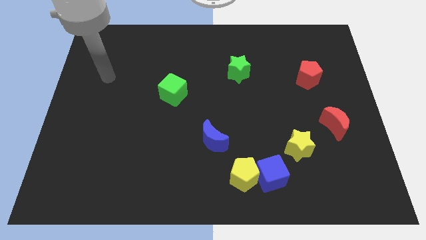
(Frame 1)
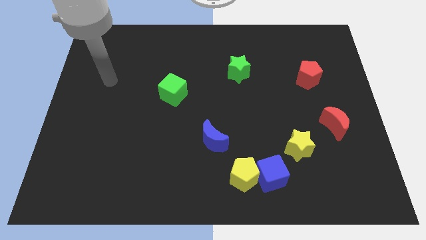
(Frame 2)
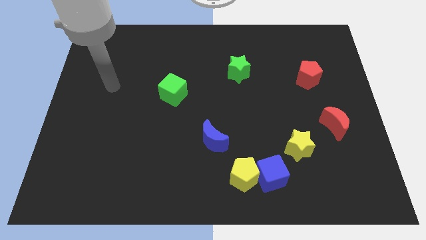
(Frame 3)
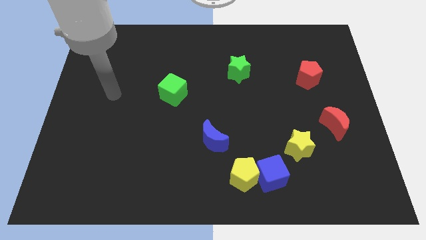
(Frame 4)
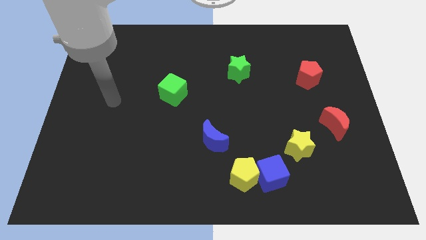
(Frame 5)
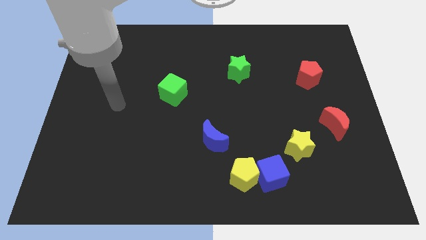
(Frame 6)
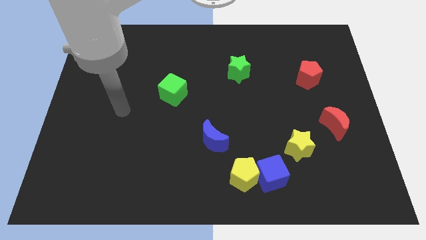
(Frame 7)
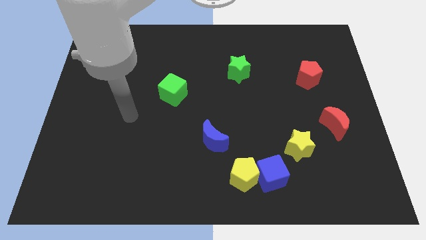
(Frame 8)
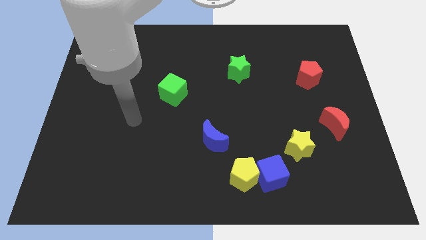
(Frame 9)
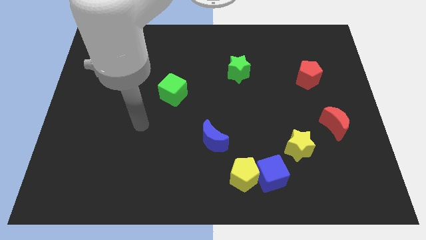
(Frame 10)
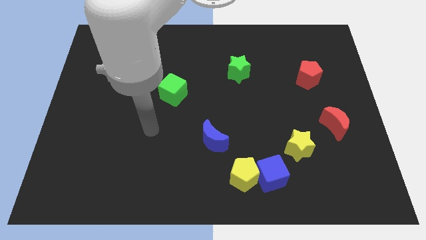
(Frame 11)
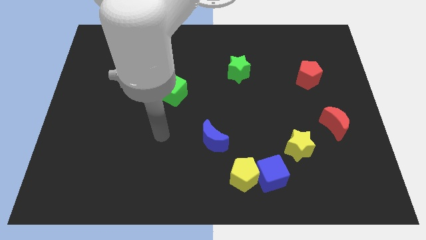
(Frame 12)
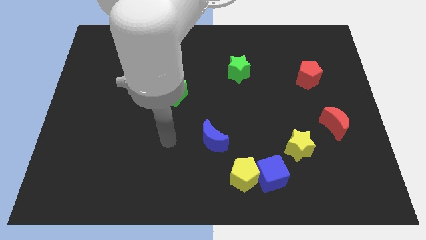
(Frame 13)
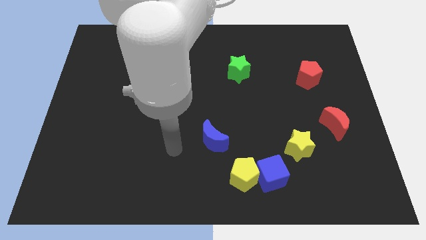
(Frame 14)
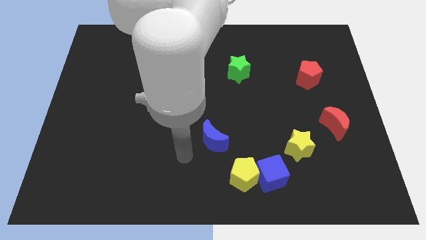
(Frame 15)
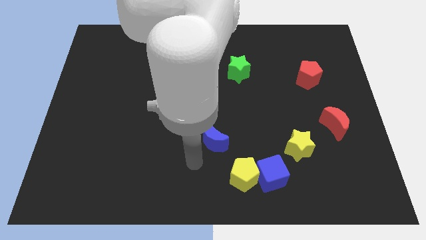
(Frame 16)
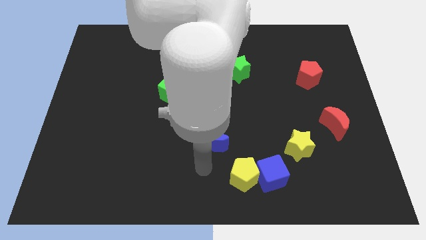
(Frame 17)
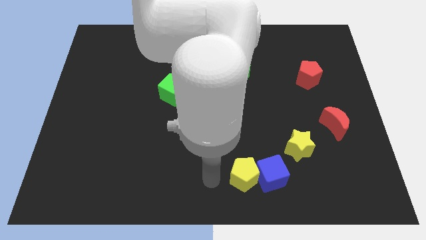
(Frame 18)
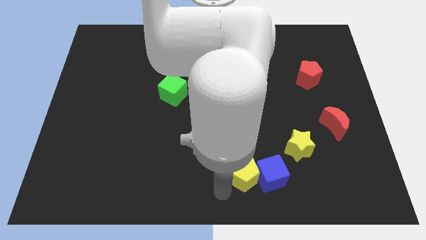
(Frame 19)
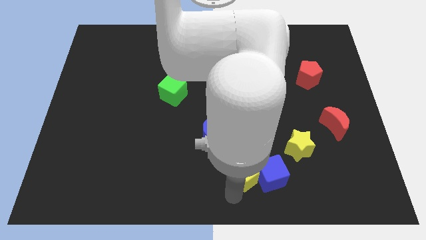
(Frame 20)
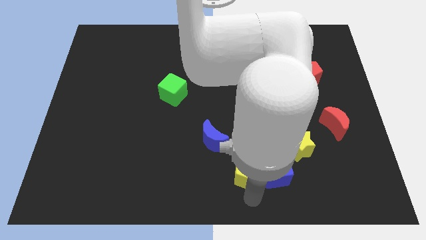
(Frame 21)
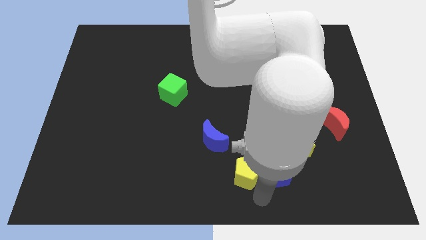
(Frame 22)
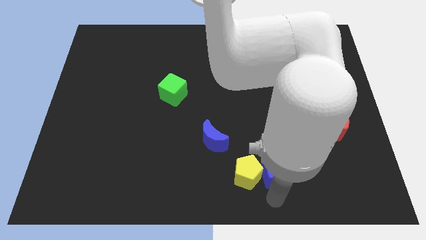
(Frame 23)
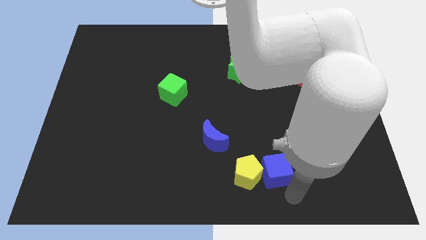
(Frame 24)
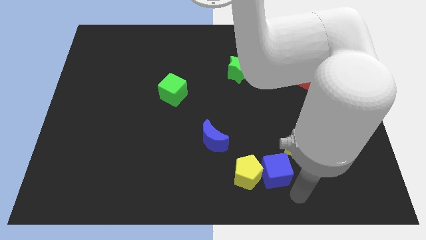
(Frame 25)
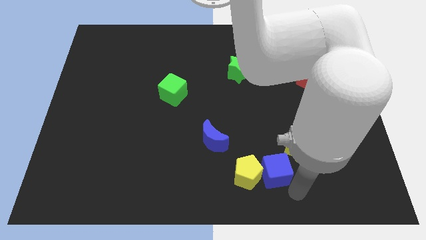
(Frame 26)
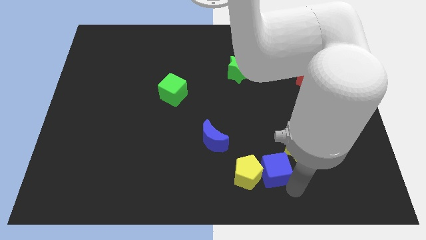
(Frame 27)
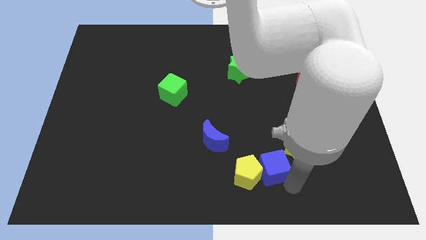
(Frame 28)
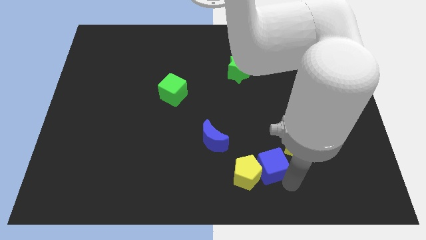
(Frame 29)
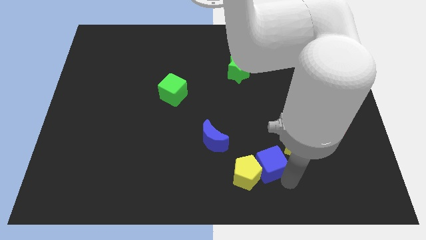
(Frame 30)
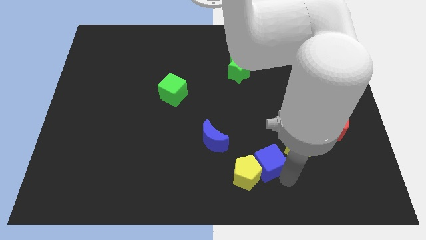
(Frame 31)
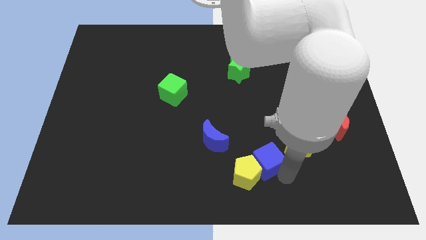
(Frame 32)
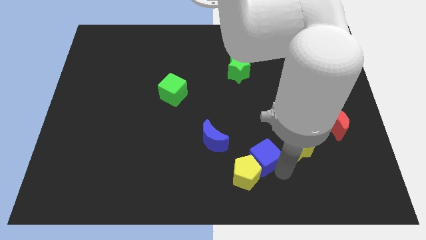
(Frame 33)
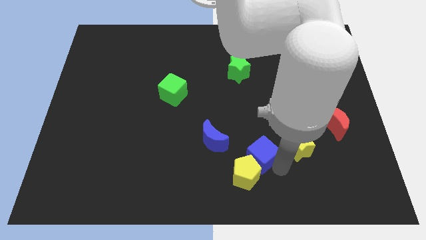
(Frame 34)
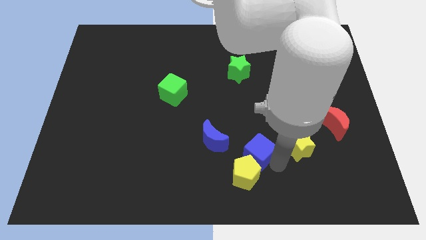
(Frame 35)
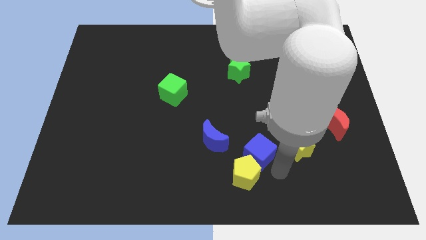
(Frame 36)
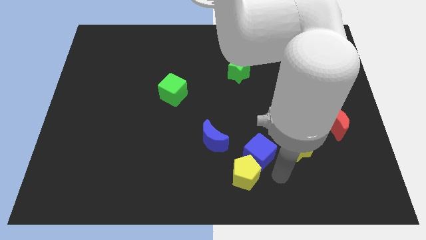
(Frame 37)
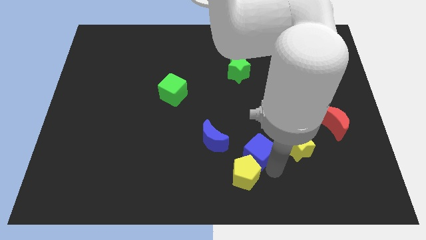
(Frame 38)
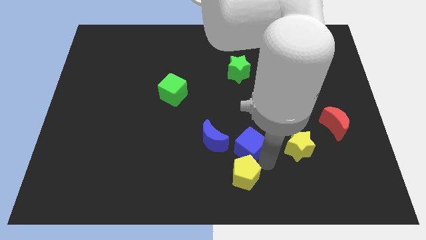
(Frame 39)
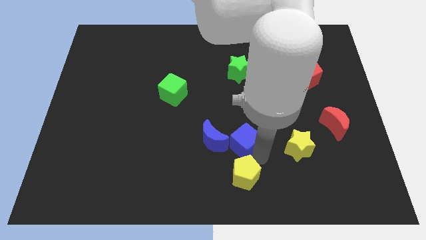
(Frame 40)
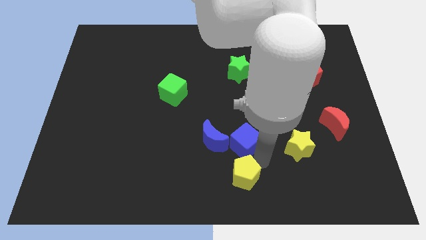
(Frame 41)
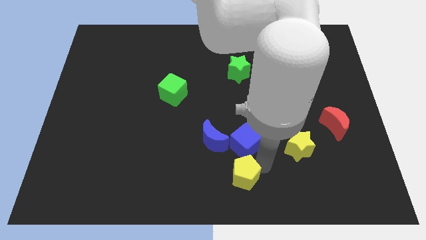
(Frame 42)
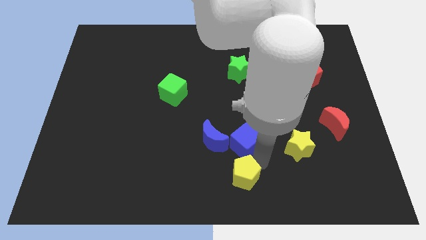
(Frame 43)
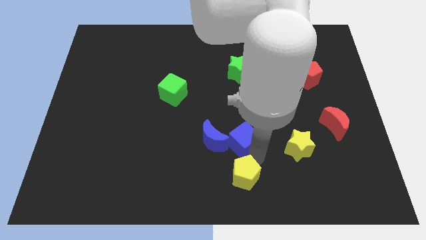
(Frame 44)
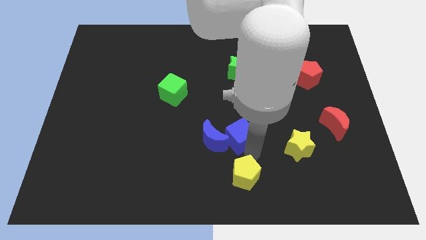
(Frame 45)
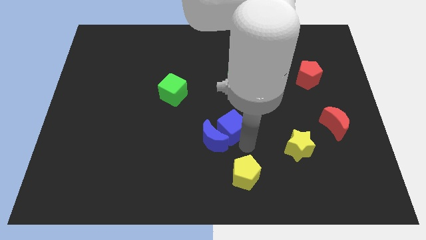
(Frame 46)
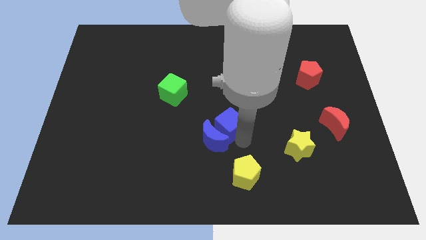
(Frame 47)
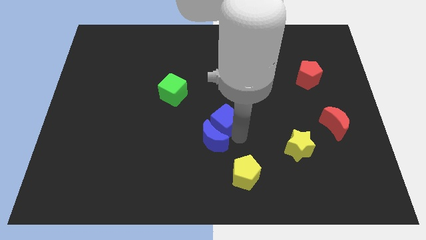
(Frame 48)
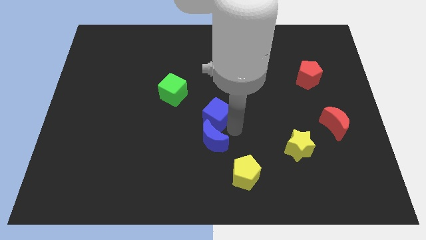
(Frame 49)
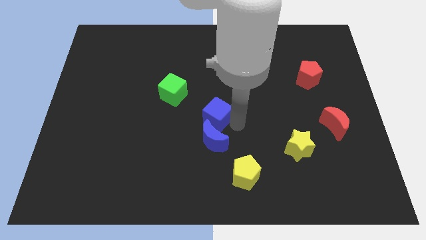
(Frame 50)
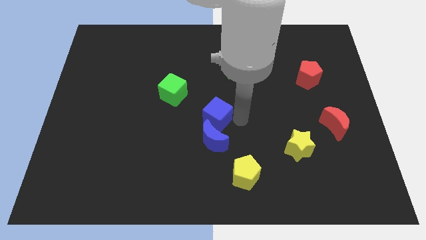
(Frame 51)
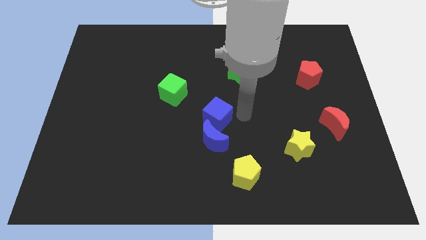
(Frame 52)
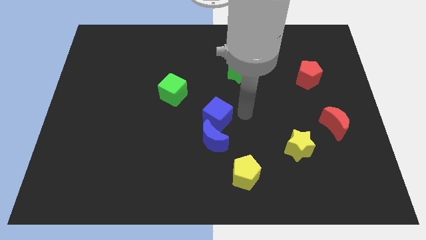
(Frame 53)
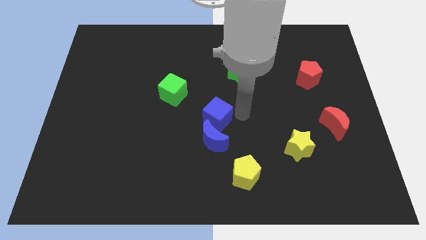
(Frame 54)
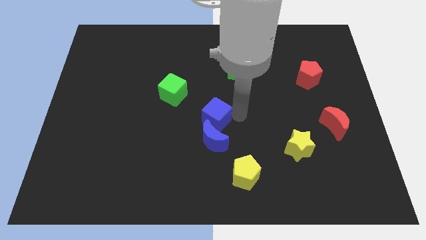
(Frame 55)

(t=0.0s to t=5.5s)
move the blue cube to the top left side of the blue moon

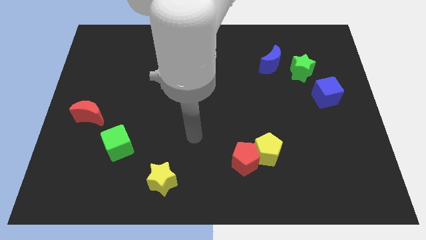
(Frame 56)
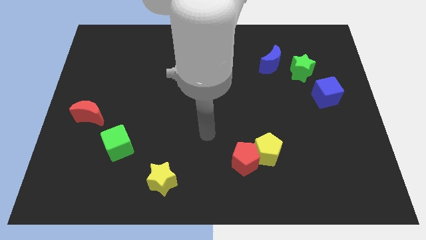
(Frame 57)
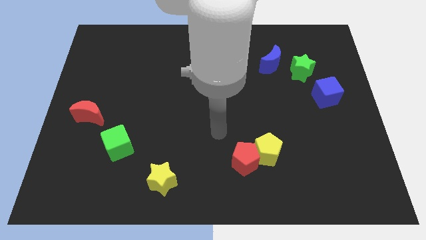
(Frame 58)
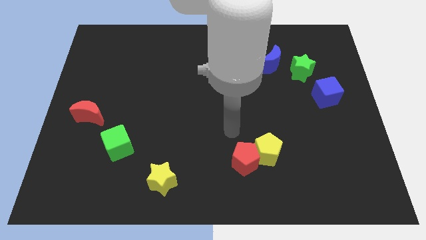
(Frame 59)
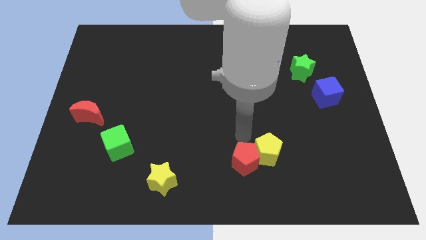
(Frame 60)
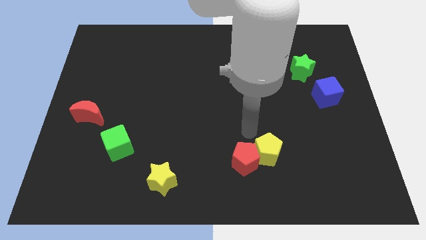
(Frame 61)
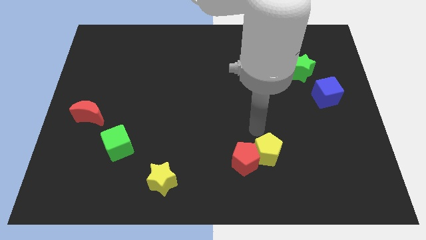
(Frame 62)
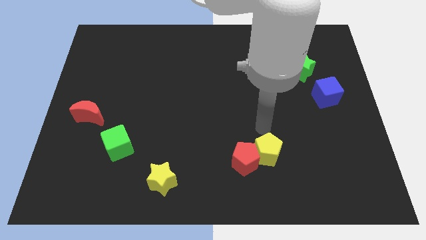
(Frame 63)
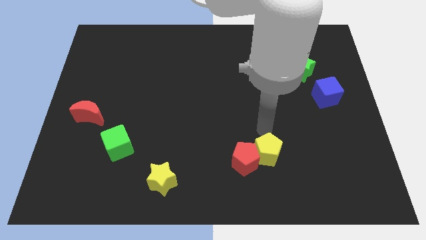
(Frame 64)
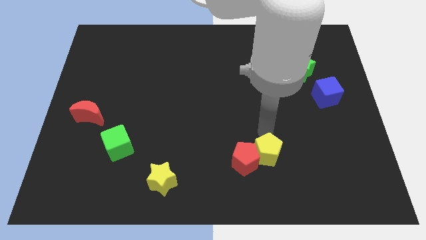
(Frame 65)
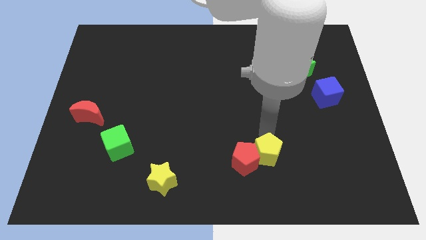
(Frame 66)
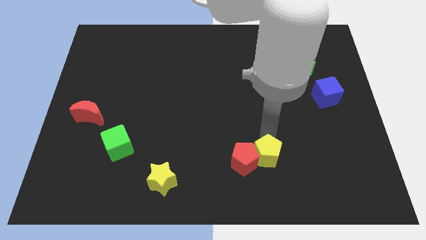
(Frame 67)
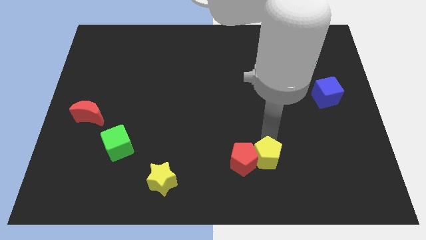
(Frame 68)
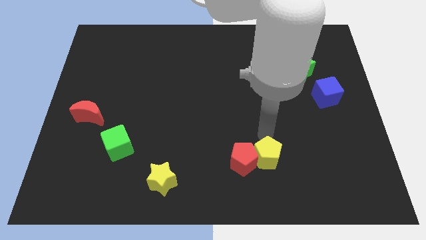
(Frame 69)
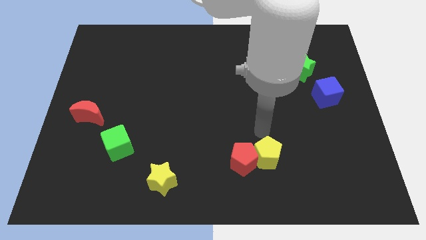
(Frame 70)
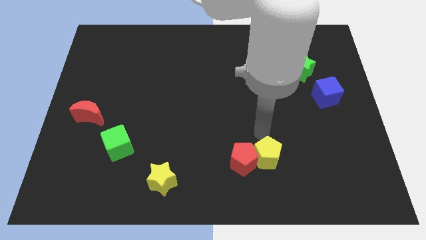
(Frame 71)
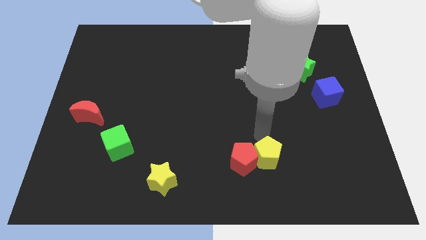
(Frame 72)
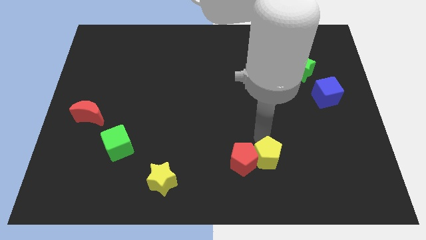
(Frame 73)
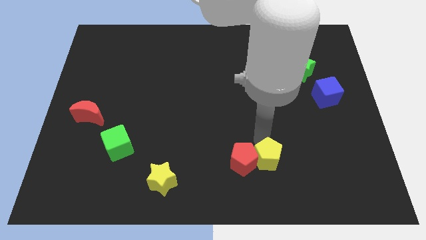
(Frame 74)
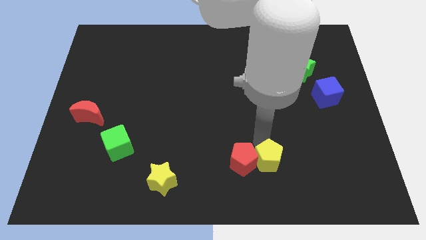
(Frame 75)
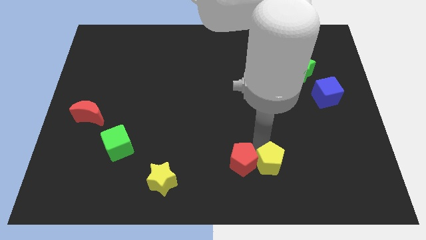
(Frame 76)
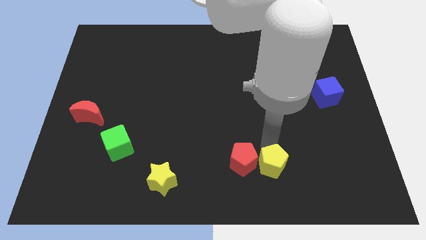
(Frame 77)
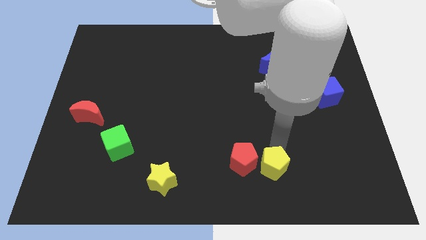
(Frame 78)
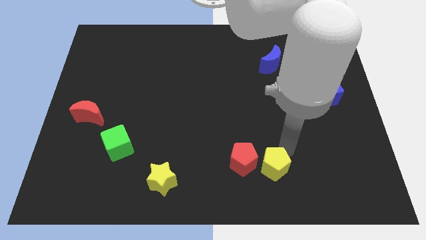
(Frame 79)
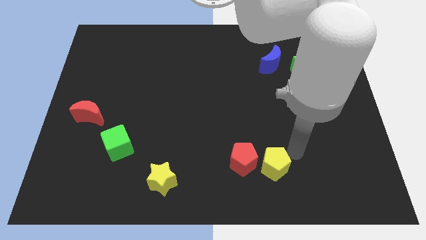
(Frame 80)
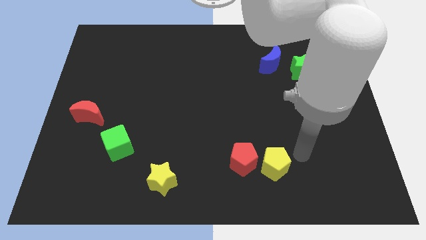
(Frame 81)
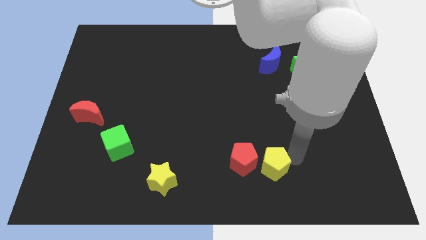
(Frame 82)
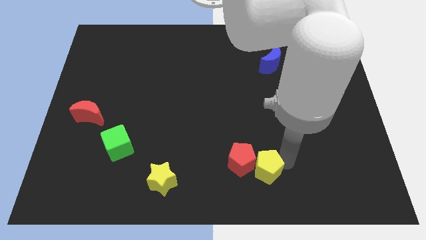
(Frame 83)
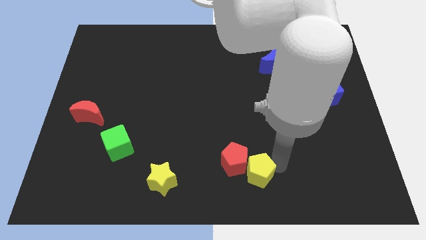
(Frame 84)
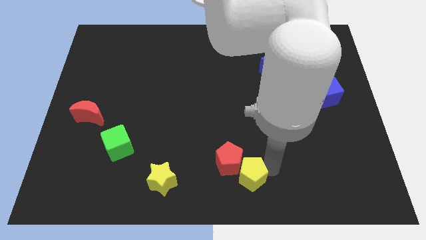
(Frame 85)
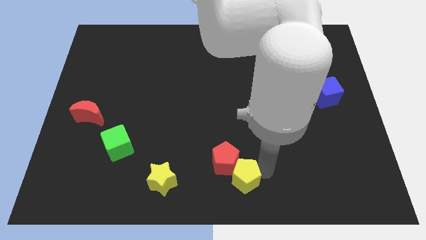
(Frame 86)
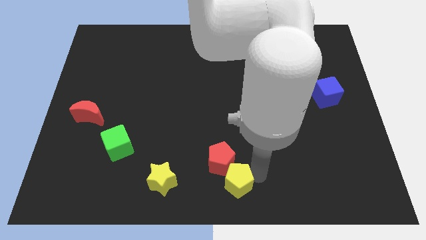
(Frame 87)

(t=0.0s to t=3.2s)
push the yellow pentagon right of the yellow star
